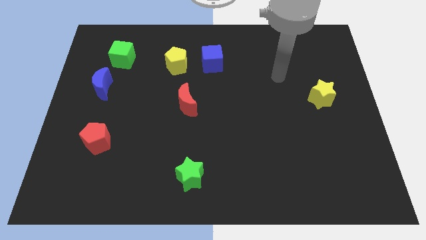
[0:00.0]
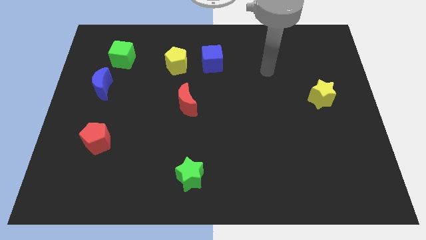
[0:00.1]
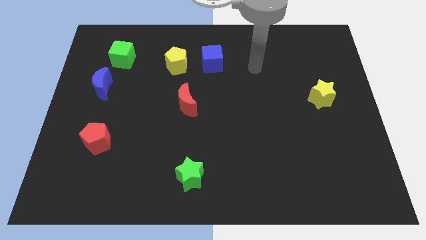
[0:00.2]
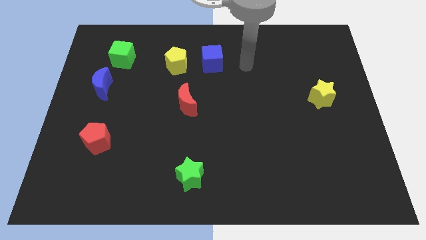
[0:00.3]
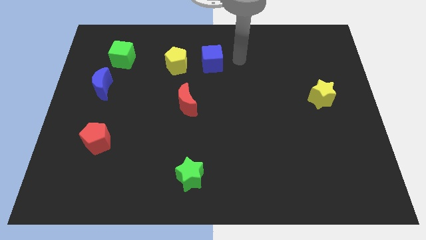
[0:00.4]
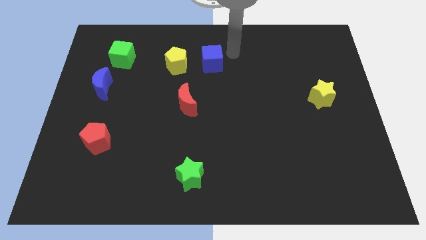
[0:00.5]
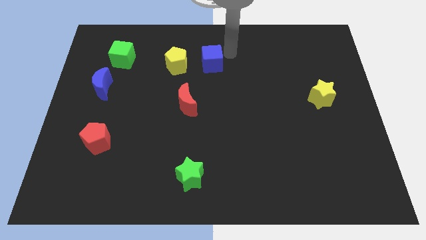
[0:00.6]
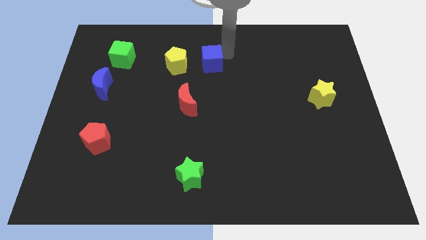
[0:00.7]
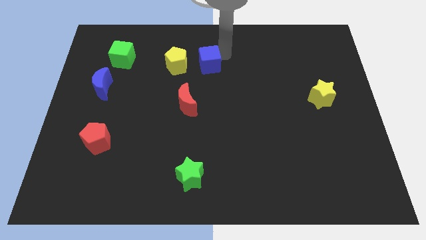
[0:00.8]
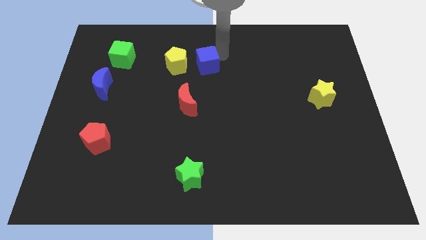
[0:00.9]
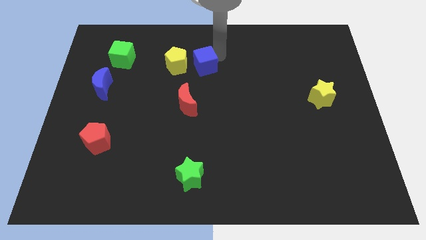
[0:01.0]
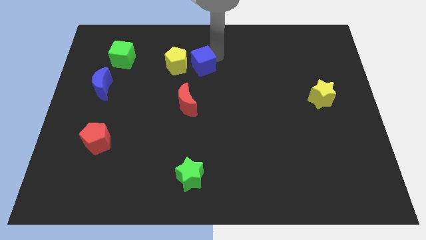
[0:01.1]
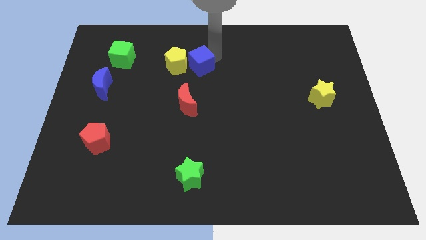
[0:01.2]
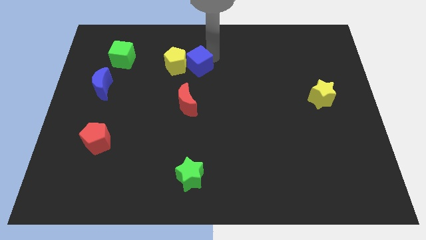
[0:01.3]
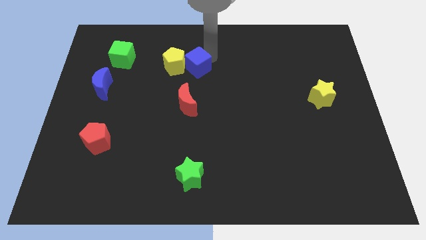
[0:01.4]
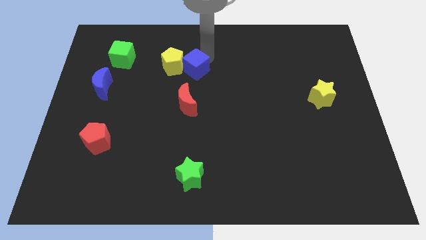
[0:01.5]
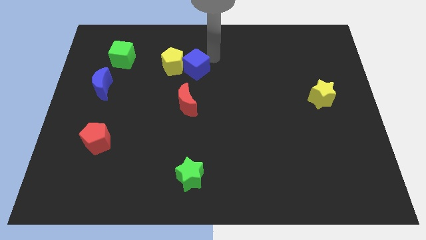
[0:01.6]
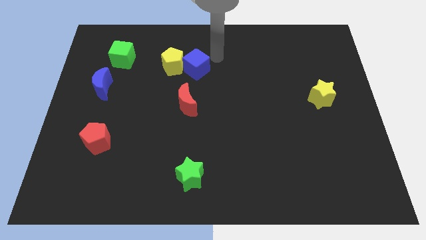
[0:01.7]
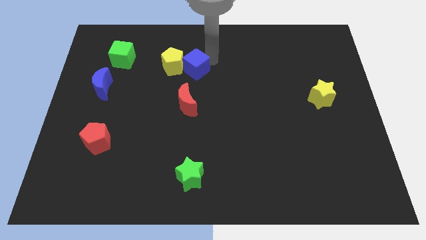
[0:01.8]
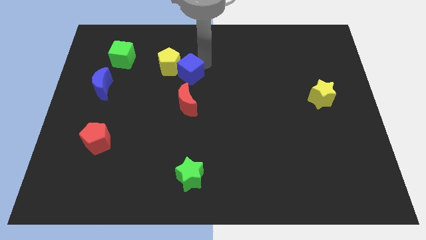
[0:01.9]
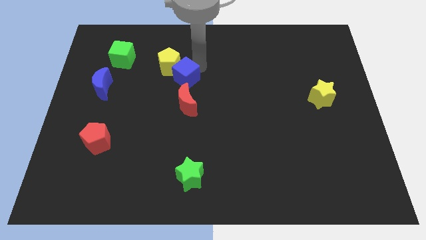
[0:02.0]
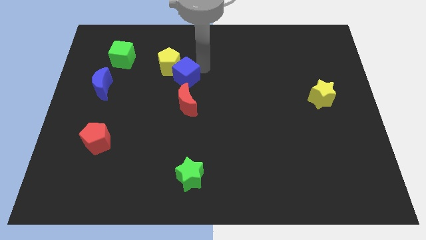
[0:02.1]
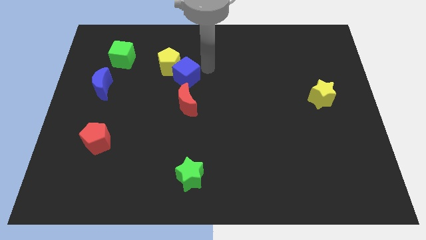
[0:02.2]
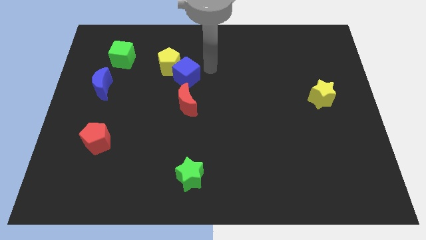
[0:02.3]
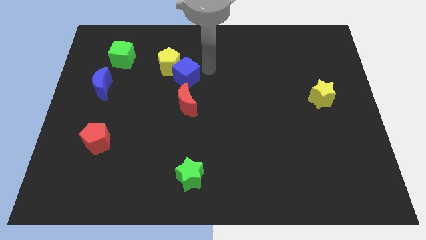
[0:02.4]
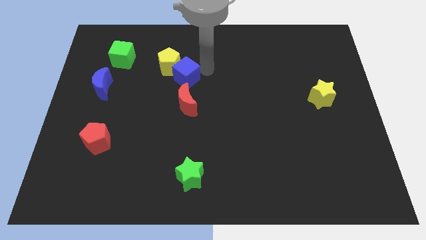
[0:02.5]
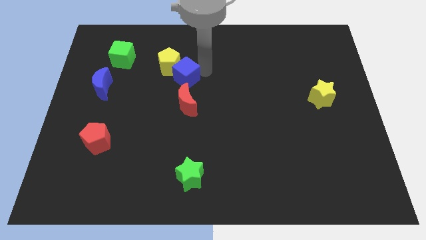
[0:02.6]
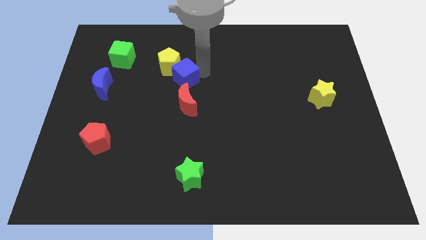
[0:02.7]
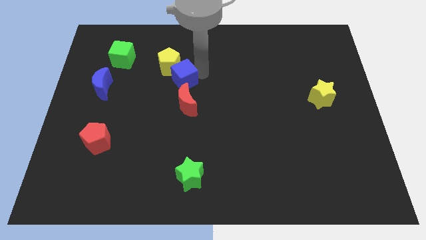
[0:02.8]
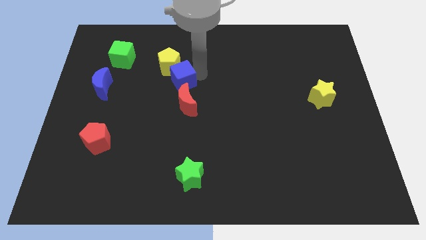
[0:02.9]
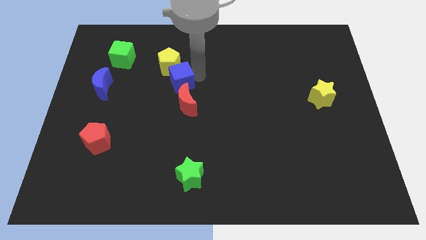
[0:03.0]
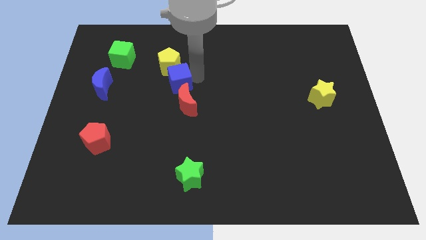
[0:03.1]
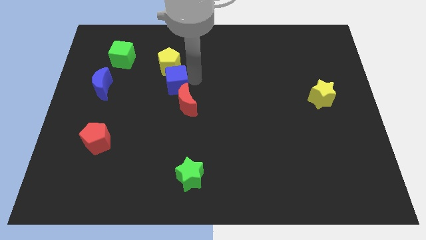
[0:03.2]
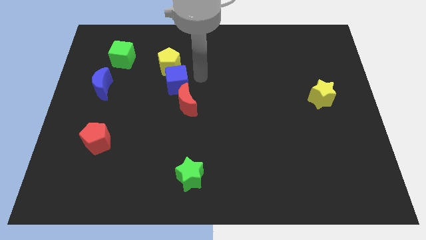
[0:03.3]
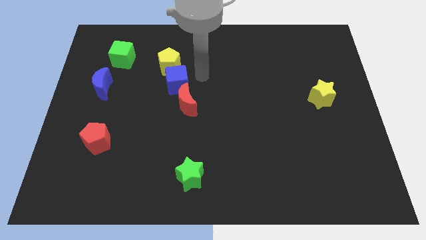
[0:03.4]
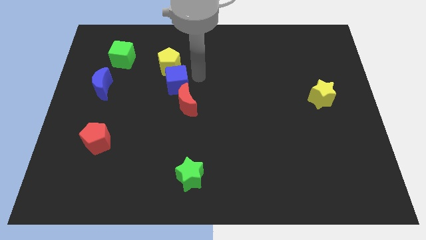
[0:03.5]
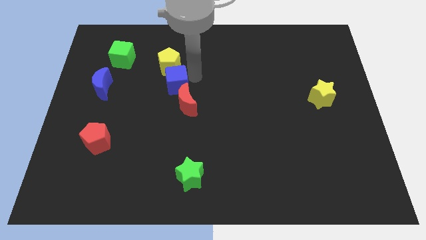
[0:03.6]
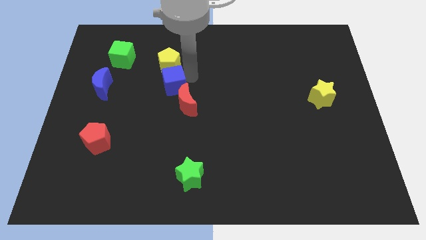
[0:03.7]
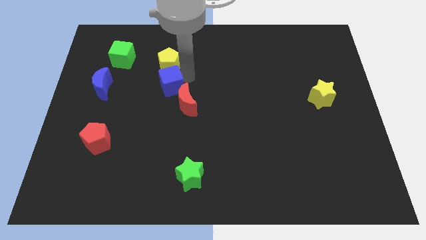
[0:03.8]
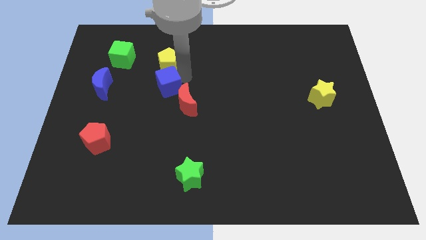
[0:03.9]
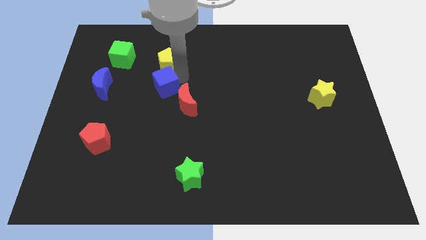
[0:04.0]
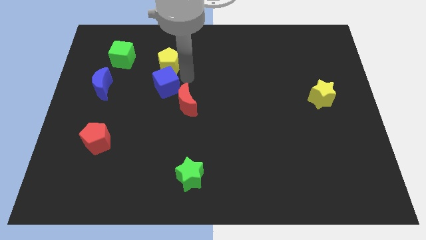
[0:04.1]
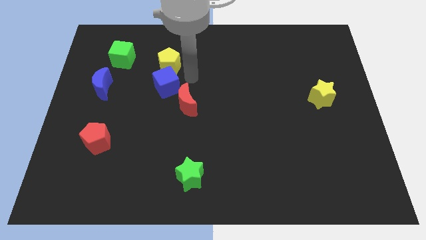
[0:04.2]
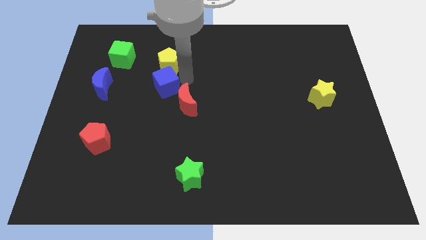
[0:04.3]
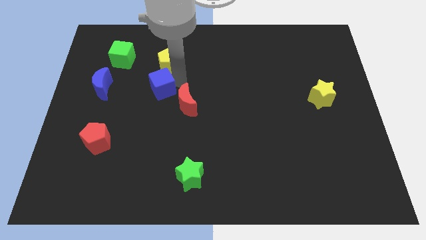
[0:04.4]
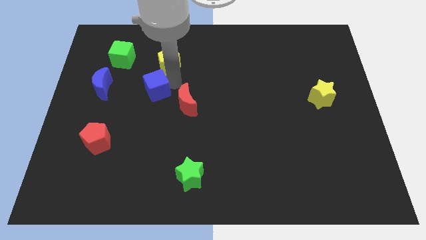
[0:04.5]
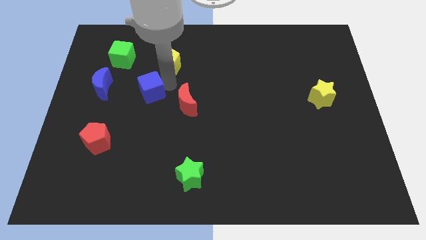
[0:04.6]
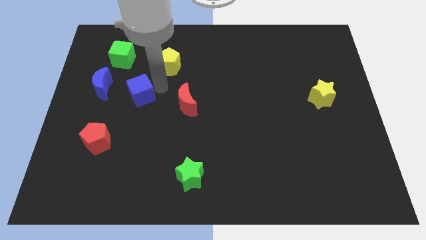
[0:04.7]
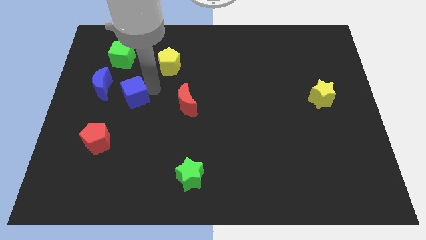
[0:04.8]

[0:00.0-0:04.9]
put the blue cube to the bottom right side of the blue moon

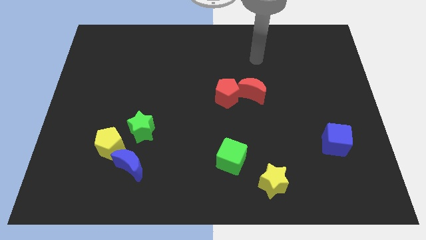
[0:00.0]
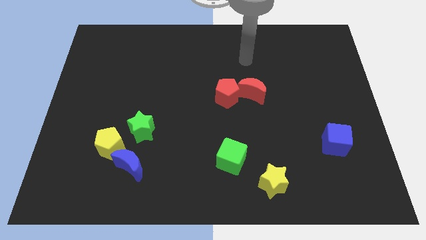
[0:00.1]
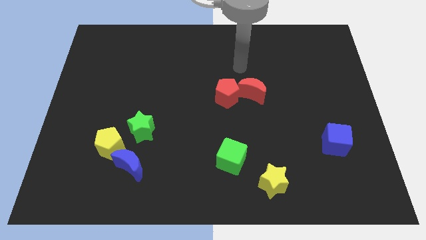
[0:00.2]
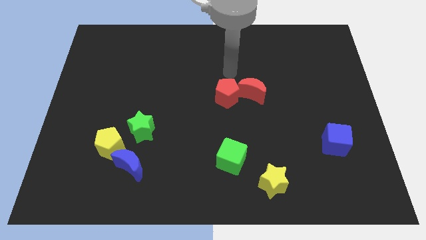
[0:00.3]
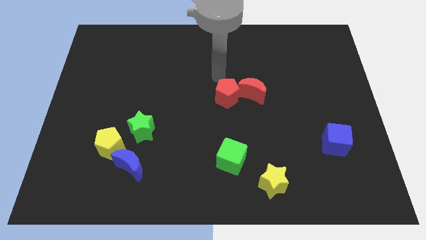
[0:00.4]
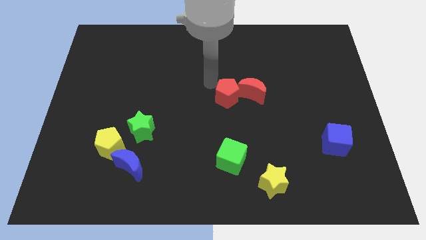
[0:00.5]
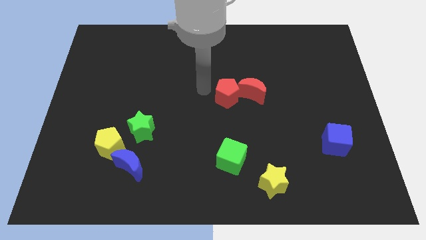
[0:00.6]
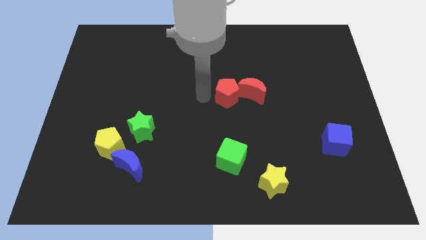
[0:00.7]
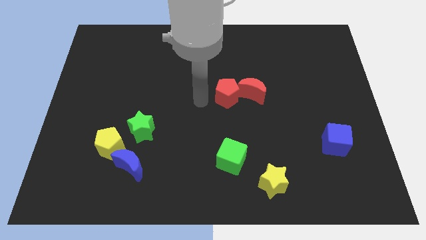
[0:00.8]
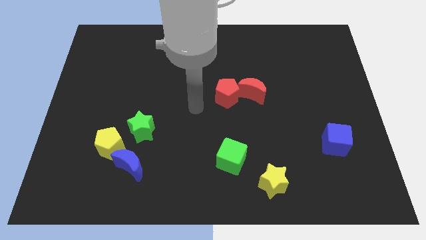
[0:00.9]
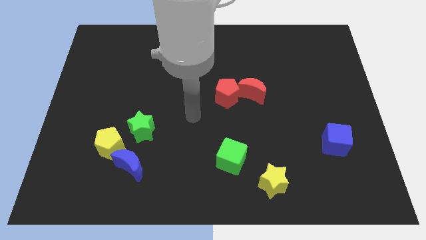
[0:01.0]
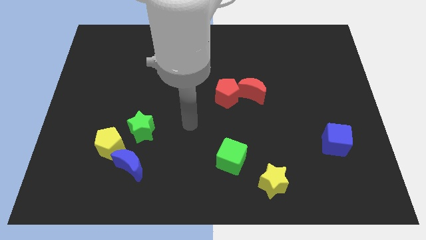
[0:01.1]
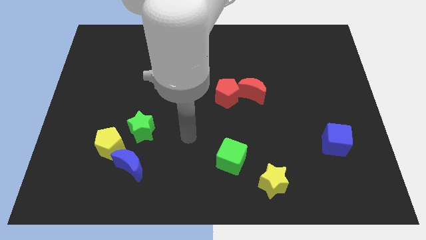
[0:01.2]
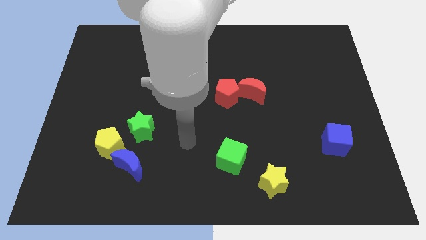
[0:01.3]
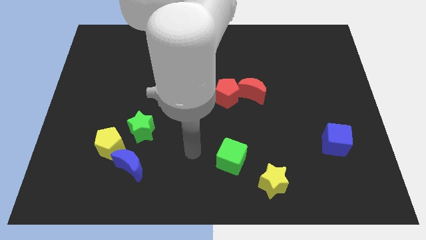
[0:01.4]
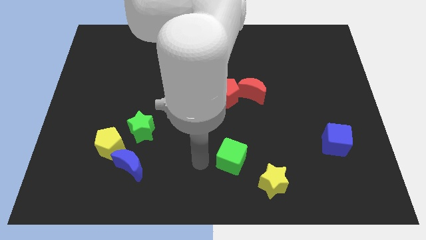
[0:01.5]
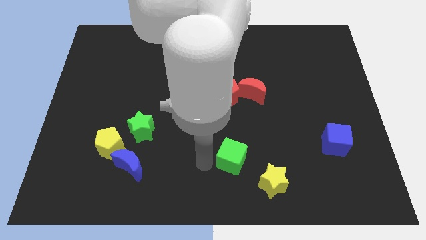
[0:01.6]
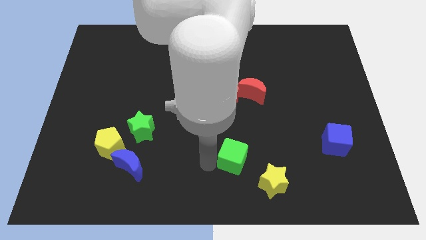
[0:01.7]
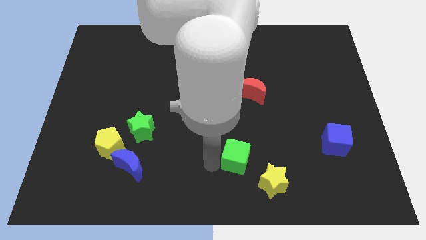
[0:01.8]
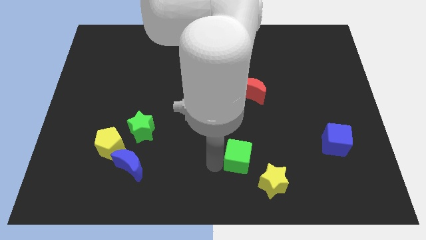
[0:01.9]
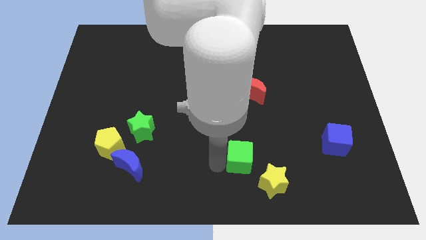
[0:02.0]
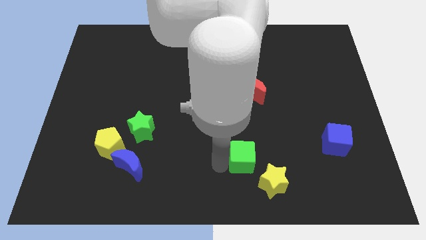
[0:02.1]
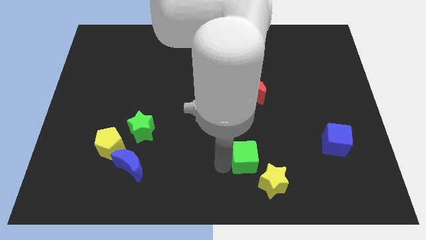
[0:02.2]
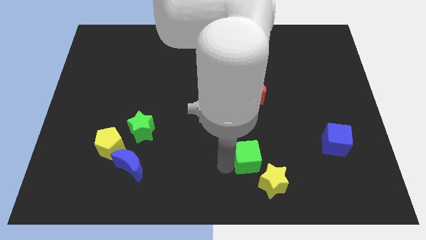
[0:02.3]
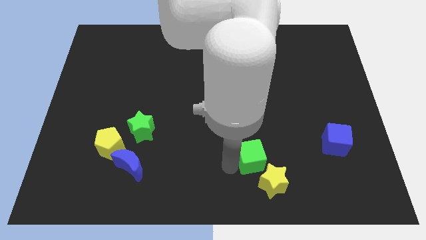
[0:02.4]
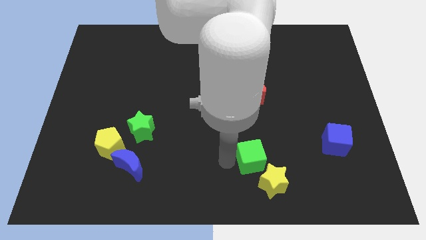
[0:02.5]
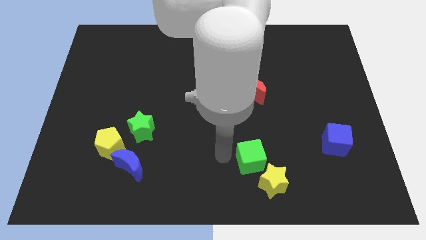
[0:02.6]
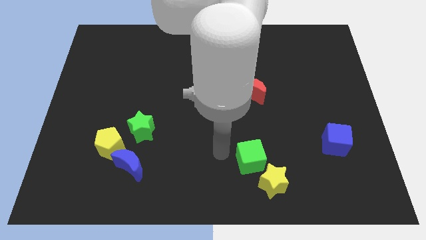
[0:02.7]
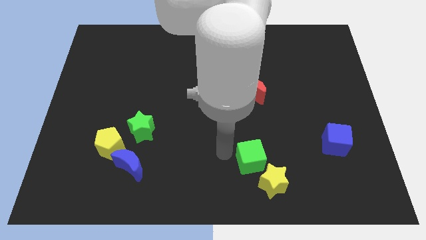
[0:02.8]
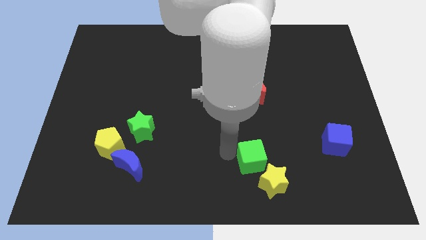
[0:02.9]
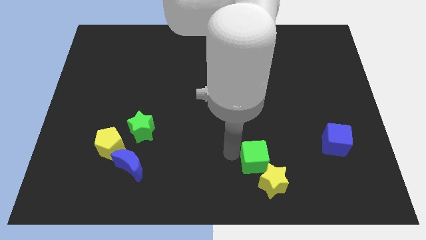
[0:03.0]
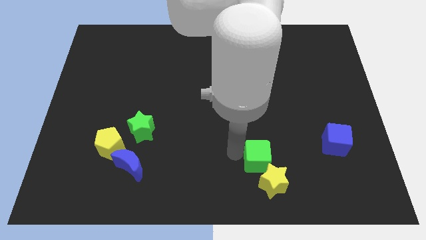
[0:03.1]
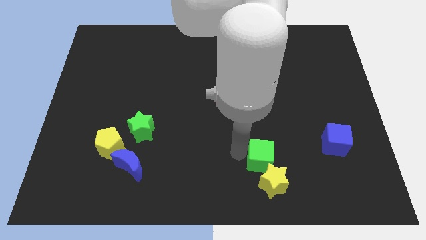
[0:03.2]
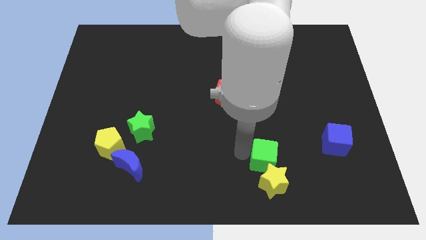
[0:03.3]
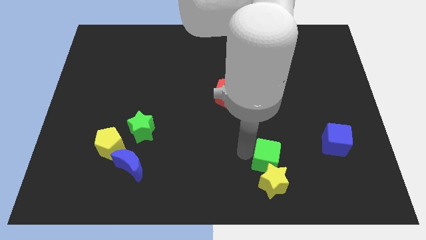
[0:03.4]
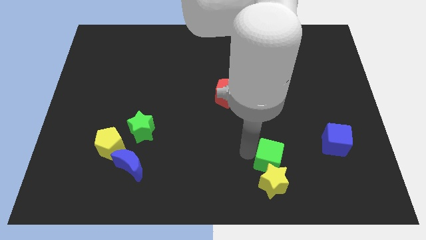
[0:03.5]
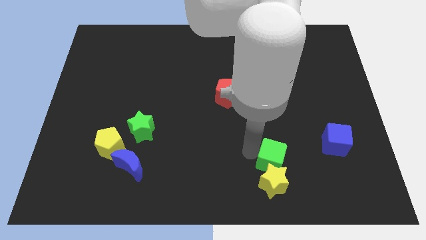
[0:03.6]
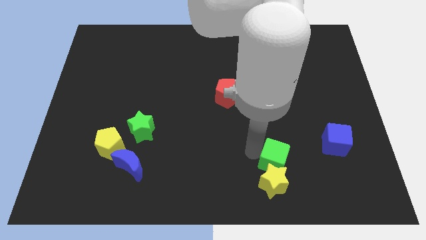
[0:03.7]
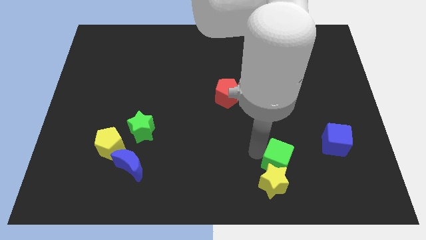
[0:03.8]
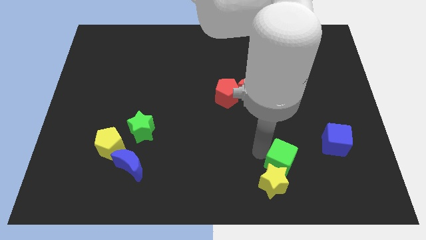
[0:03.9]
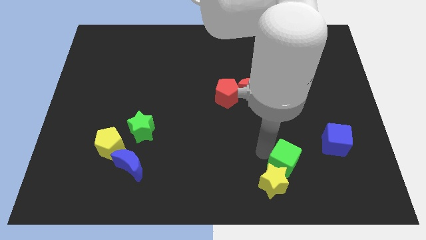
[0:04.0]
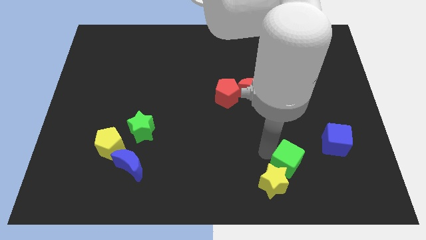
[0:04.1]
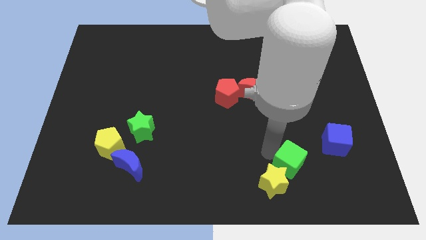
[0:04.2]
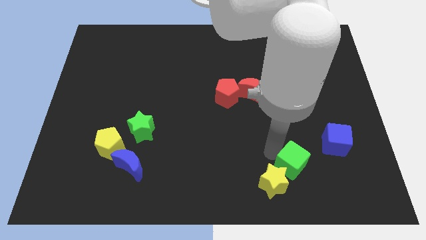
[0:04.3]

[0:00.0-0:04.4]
slide the green cube right of the yellow star
